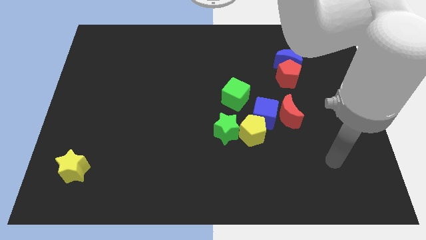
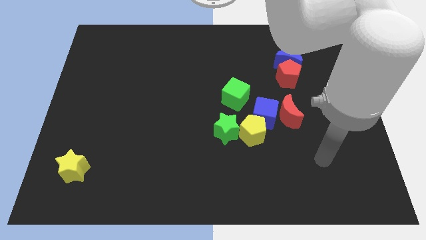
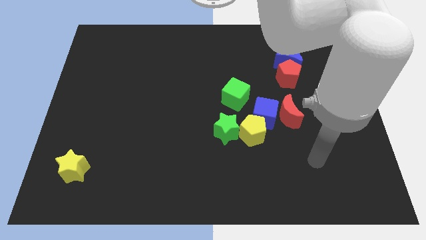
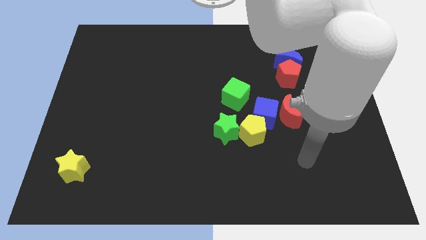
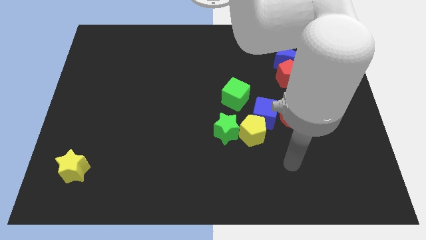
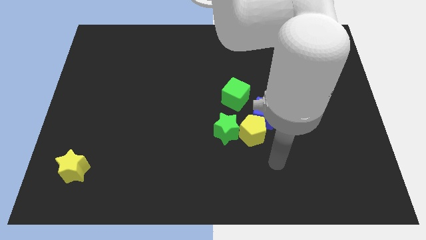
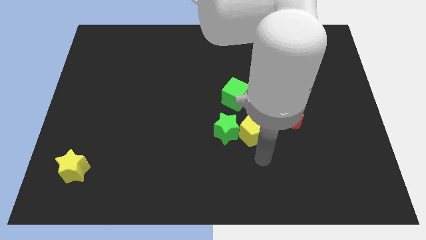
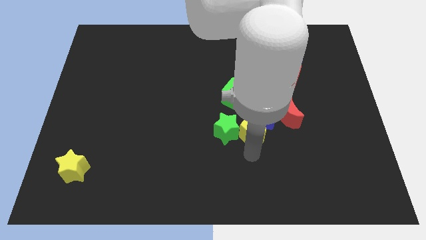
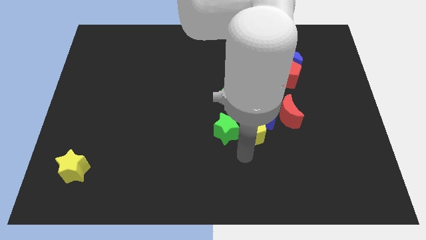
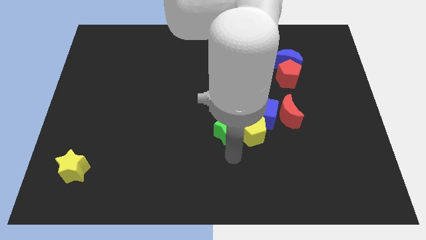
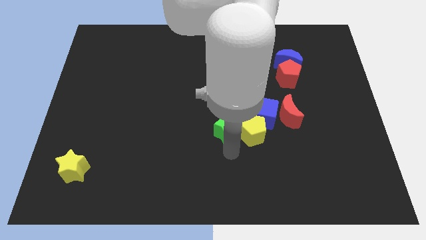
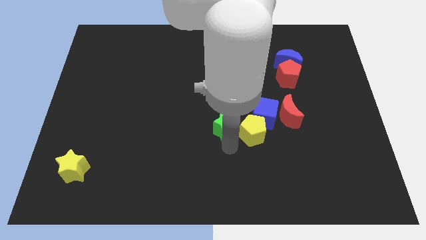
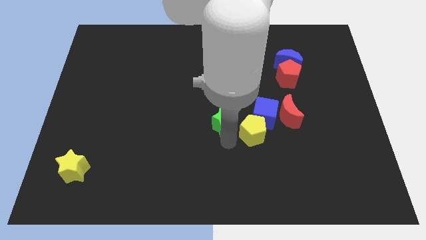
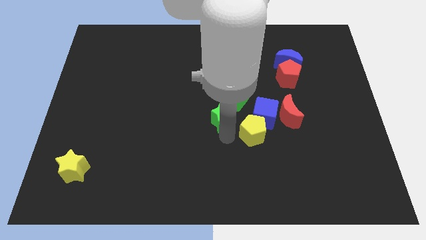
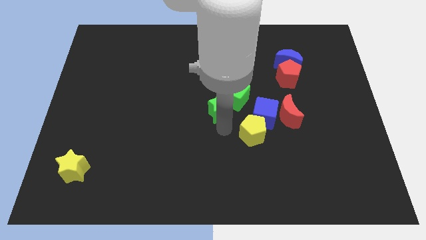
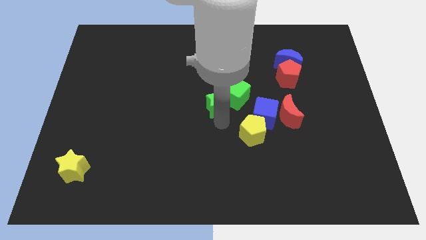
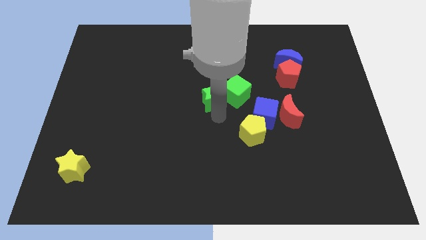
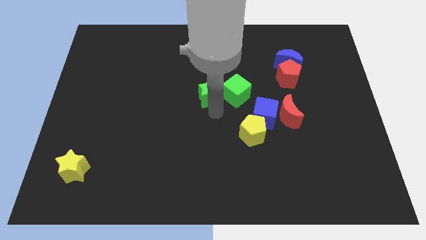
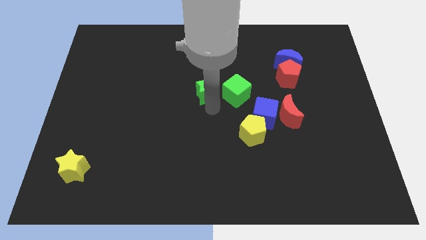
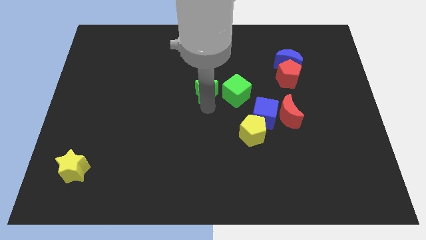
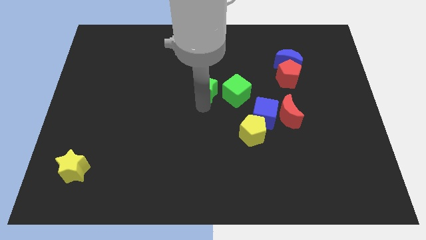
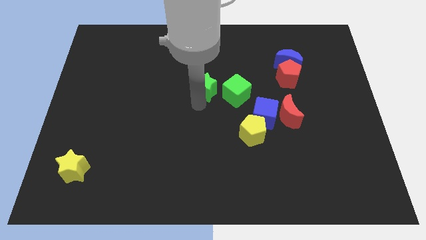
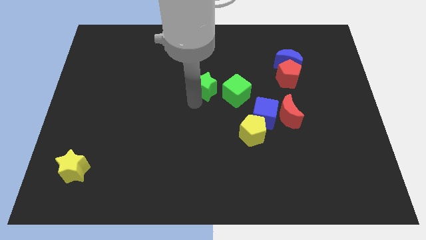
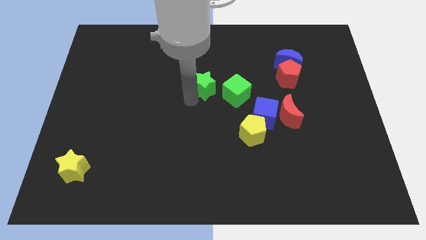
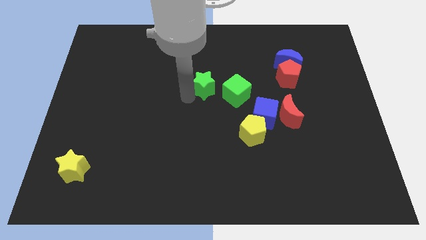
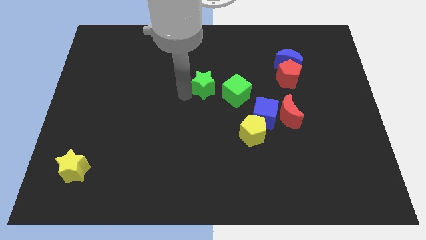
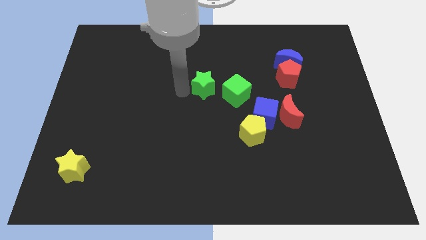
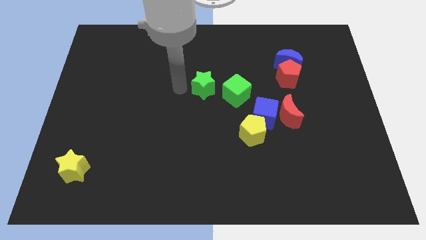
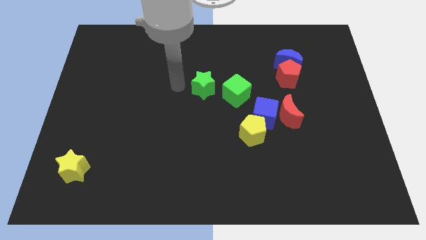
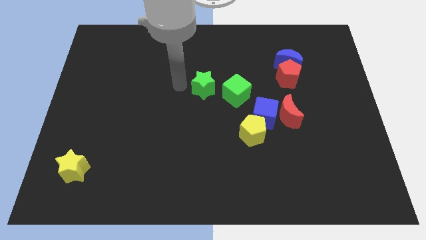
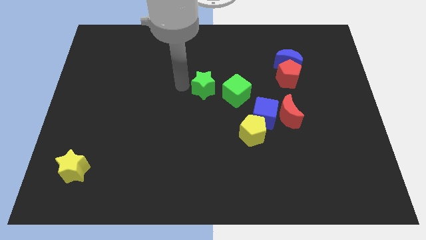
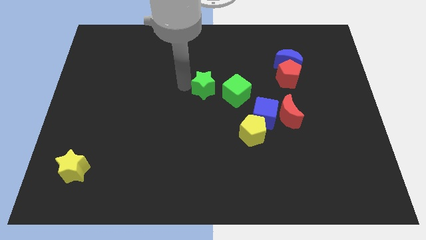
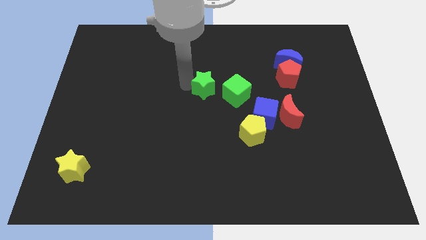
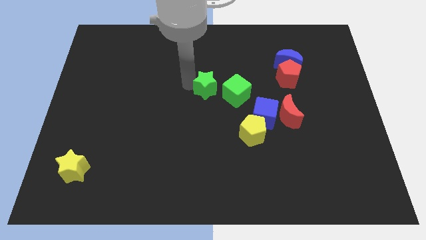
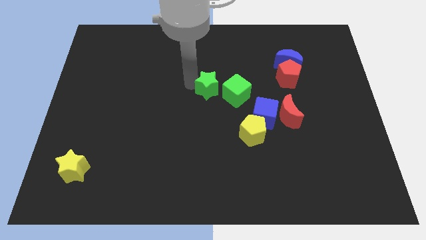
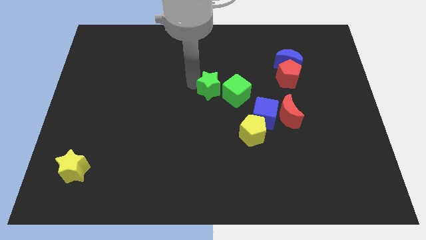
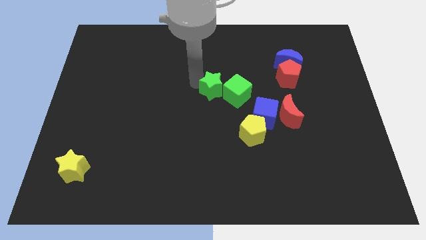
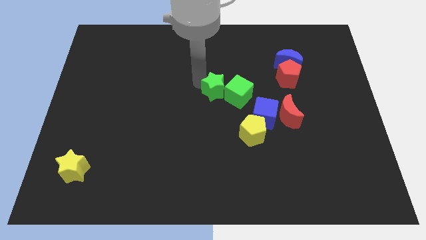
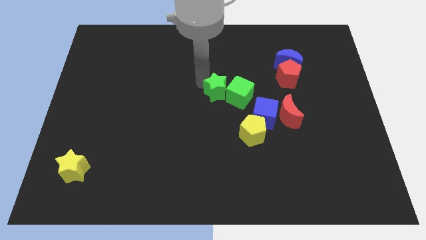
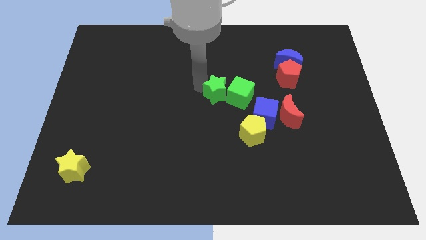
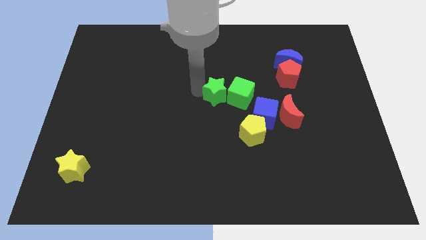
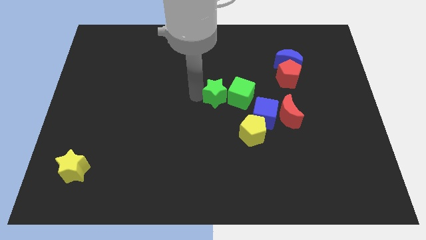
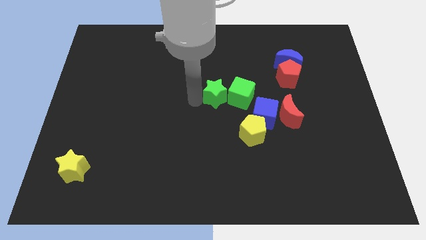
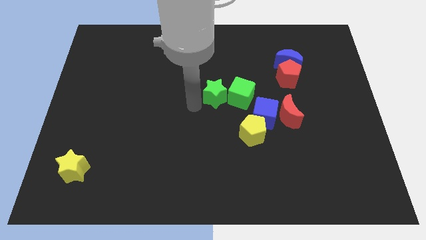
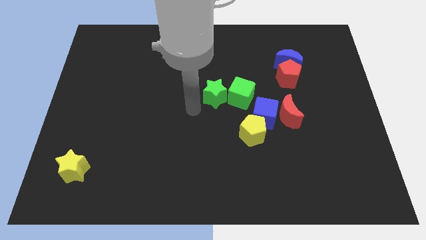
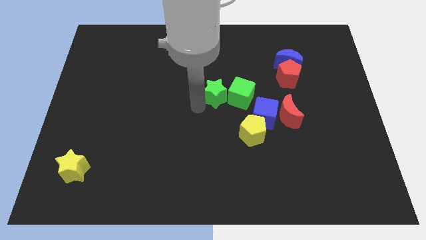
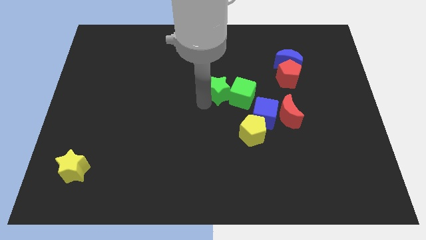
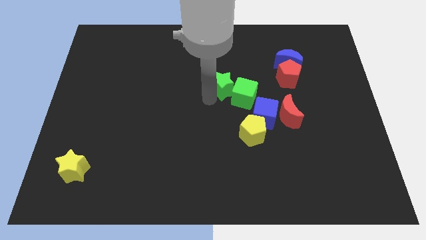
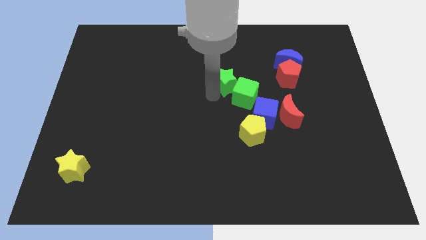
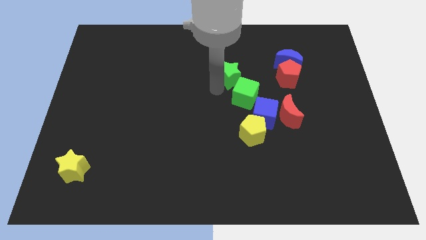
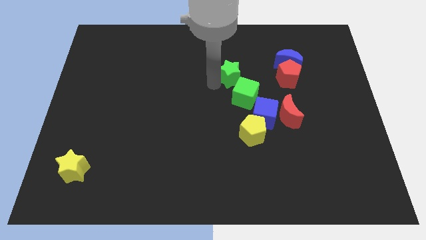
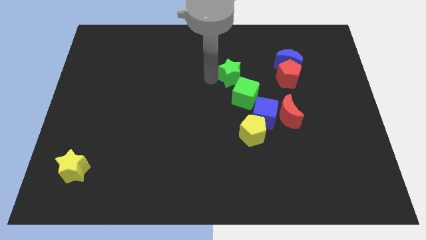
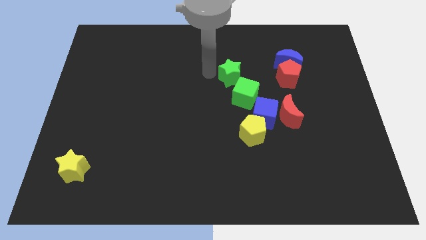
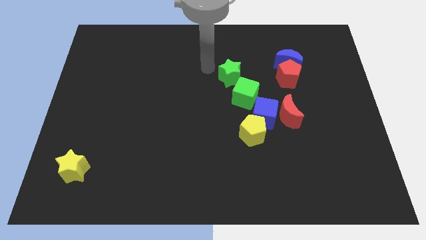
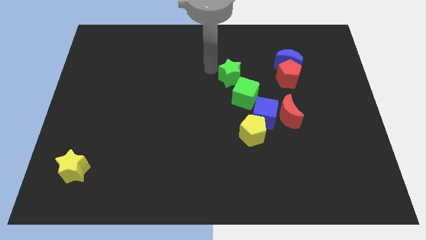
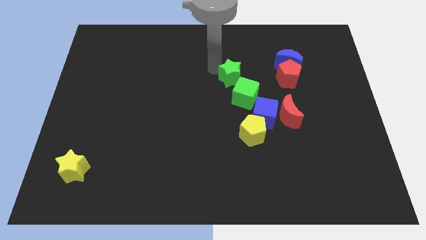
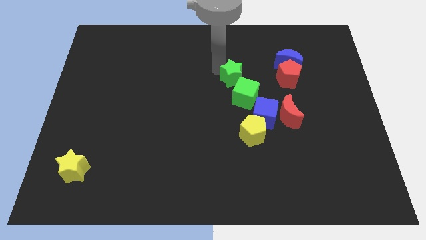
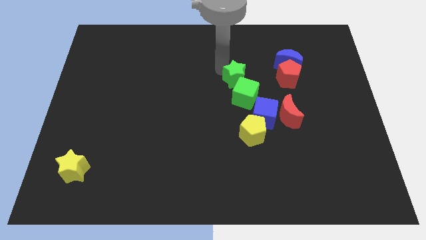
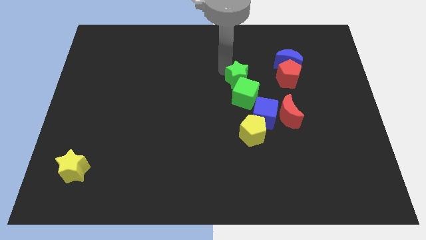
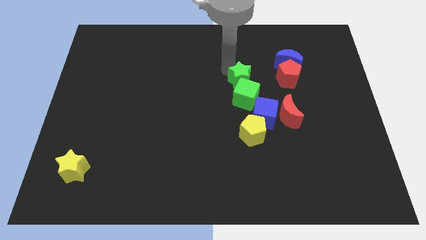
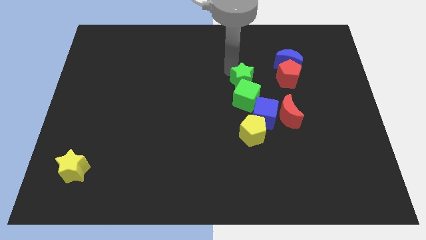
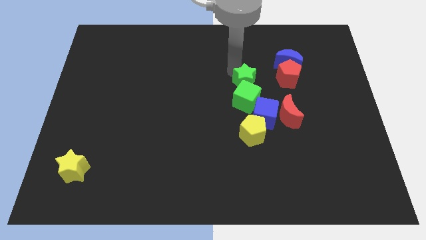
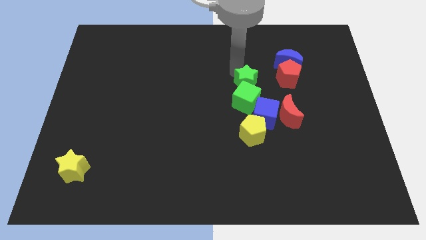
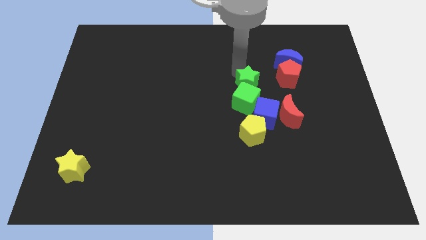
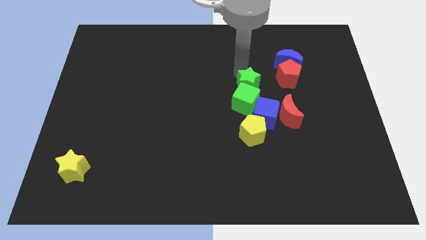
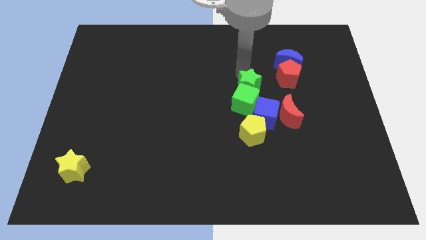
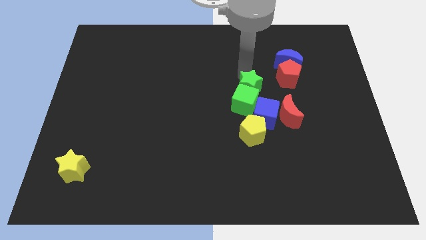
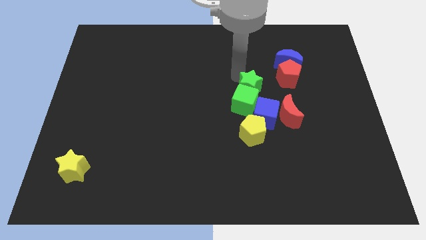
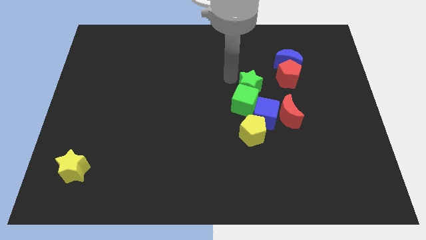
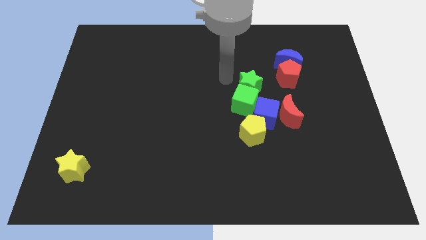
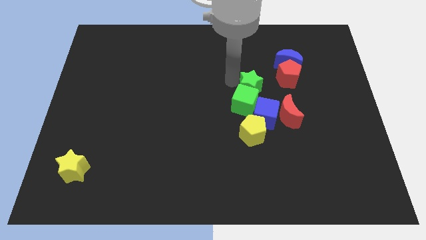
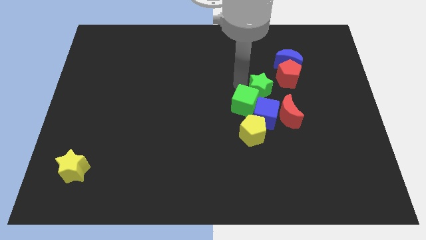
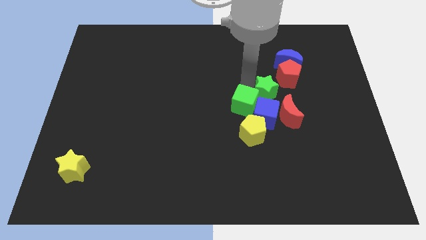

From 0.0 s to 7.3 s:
move the green star to the top right side of the blue cube
